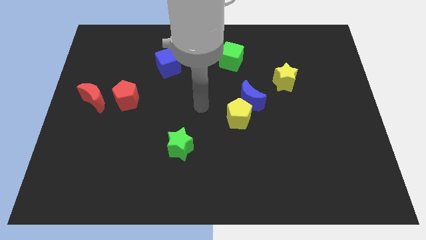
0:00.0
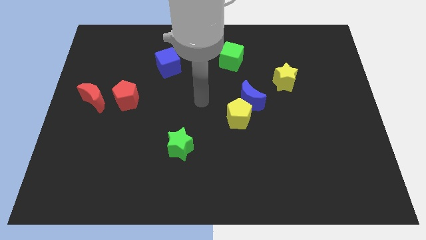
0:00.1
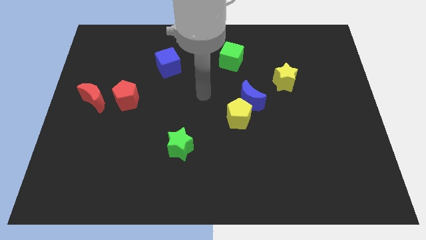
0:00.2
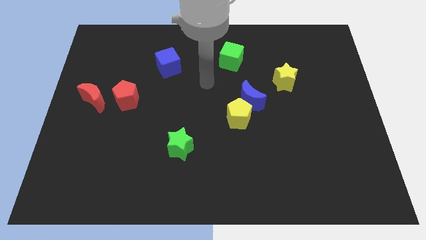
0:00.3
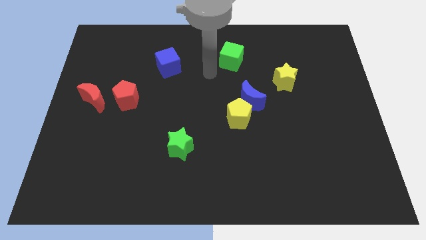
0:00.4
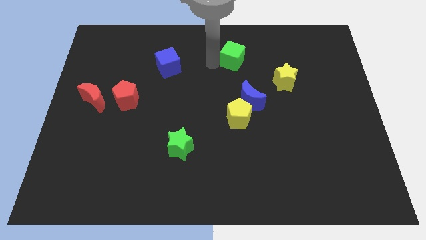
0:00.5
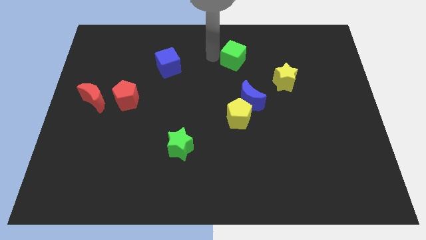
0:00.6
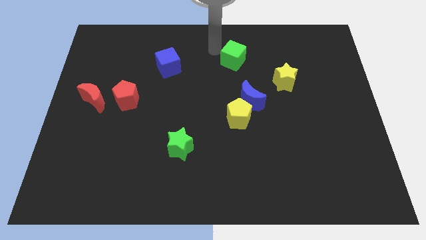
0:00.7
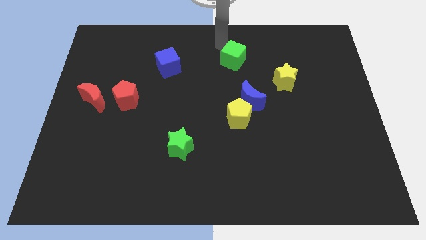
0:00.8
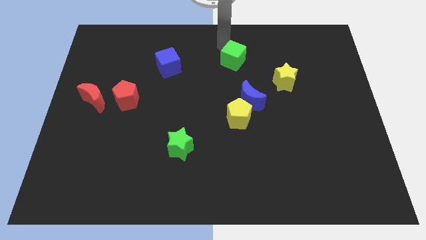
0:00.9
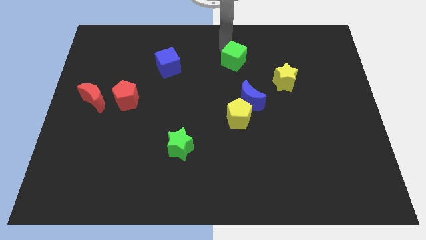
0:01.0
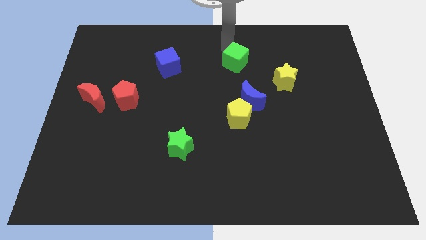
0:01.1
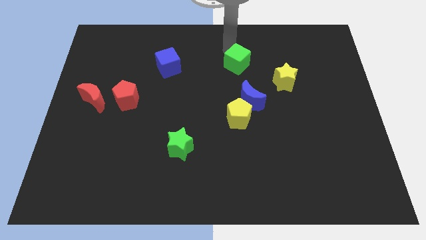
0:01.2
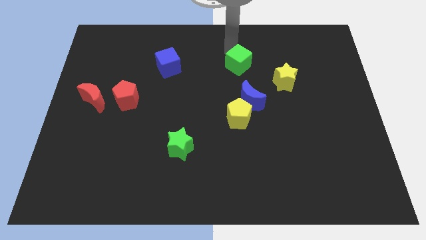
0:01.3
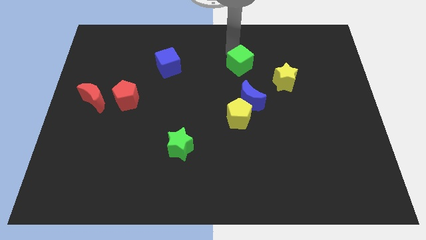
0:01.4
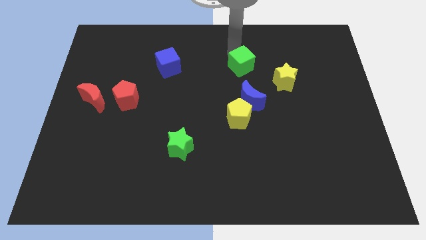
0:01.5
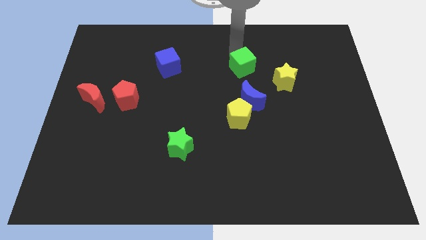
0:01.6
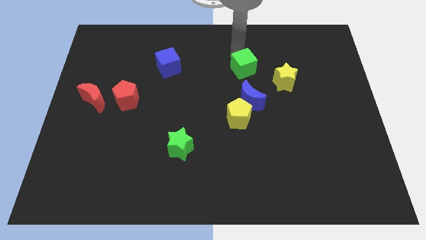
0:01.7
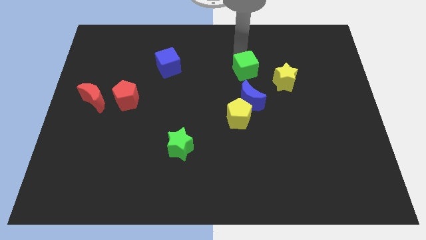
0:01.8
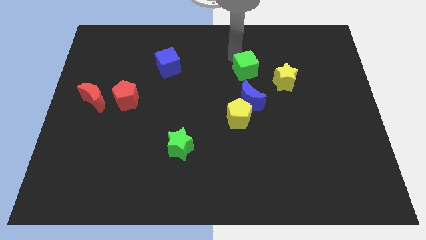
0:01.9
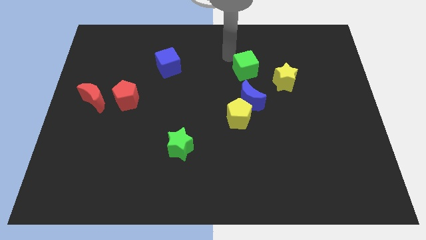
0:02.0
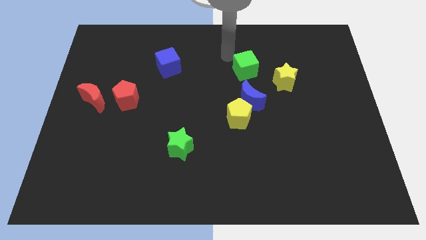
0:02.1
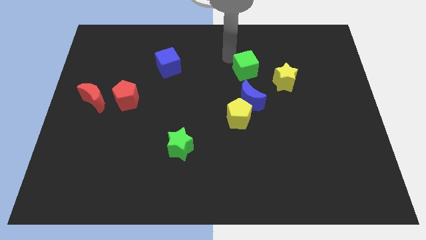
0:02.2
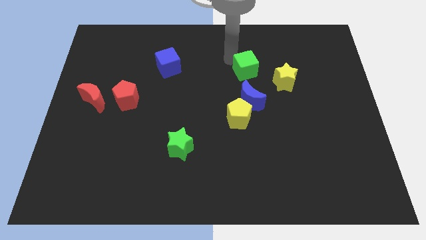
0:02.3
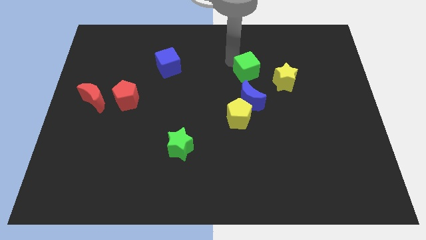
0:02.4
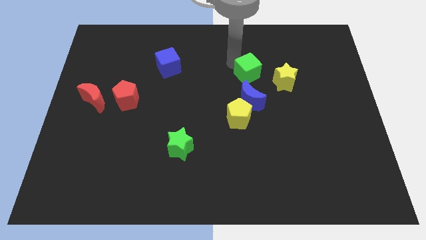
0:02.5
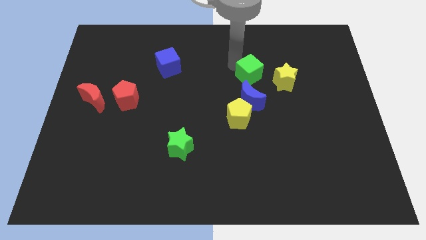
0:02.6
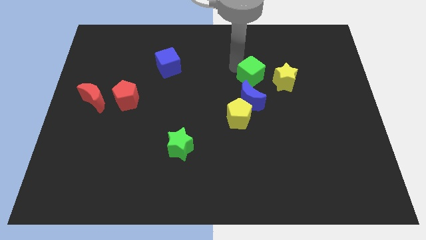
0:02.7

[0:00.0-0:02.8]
slide the green cube diagonally down and to the right slightly

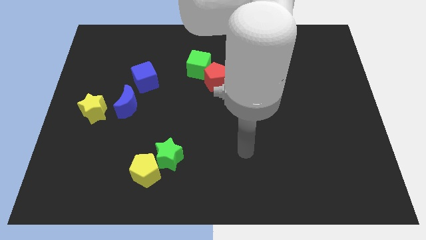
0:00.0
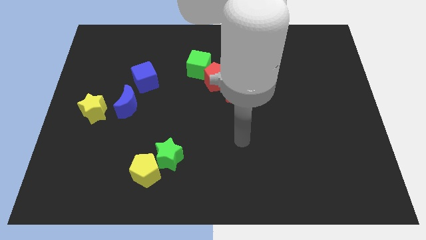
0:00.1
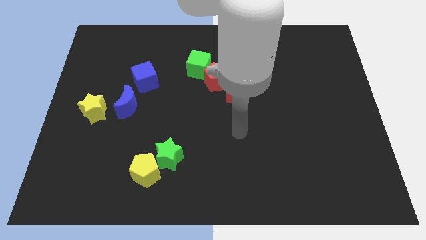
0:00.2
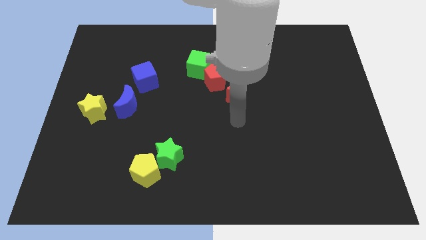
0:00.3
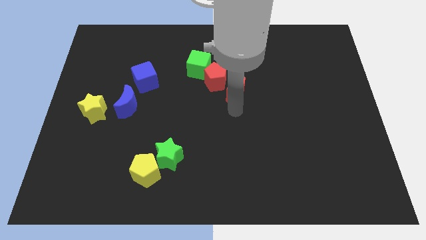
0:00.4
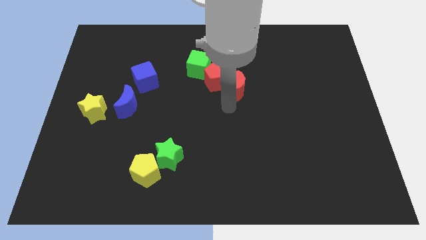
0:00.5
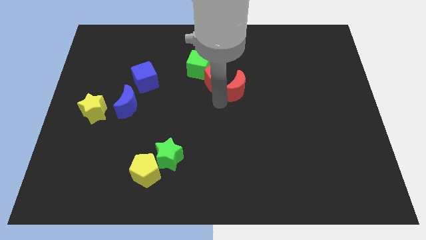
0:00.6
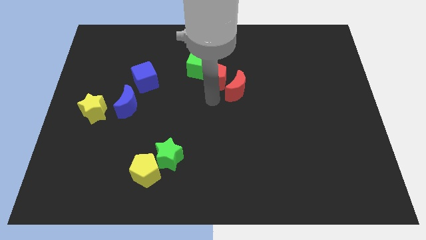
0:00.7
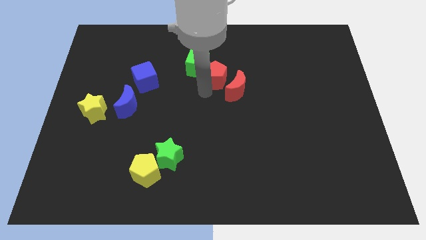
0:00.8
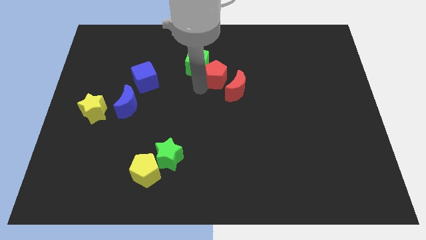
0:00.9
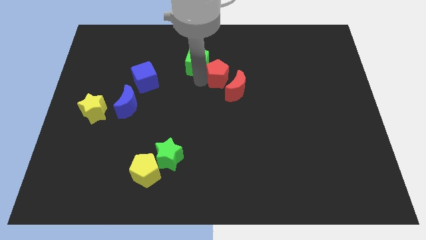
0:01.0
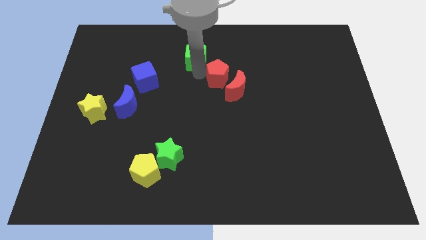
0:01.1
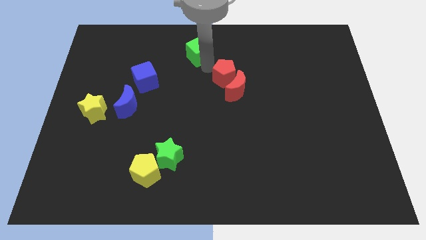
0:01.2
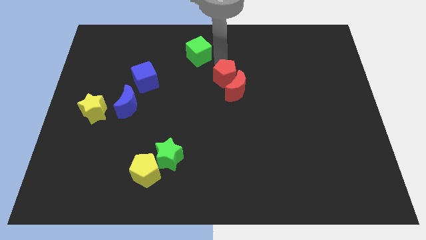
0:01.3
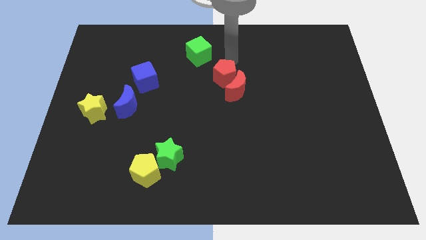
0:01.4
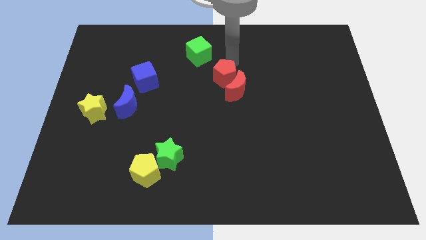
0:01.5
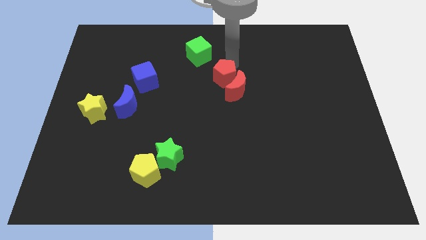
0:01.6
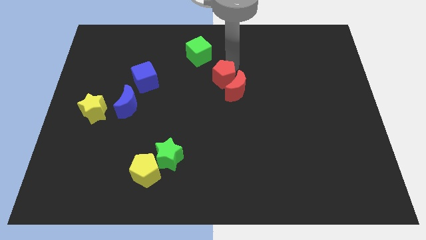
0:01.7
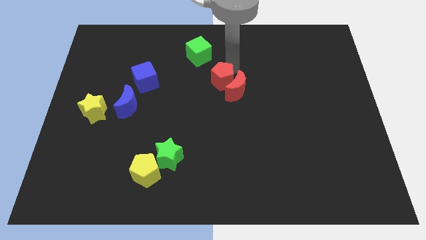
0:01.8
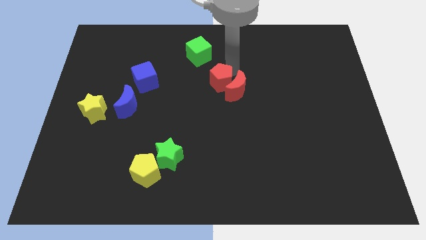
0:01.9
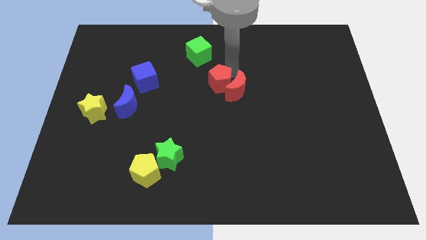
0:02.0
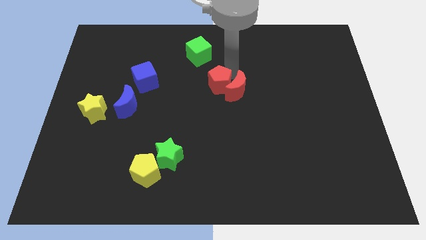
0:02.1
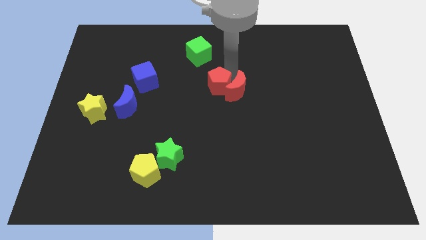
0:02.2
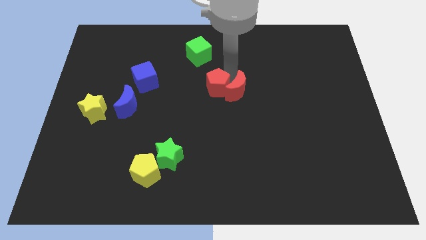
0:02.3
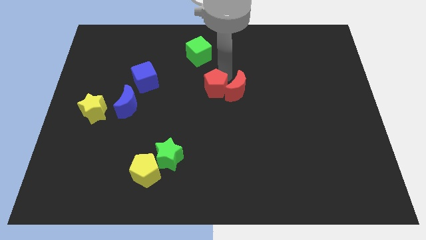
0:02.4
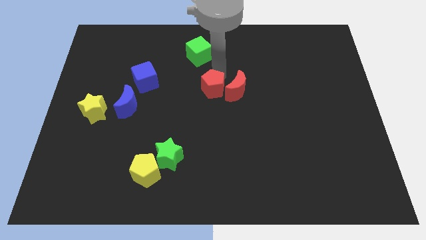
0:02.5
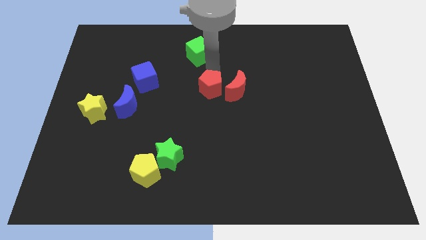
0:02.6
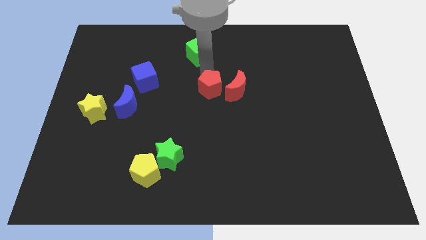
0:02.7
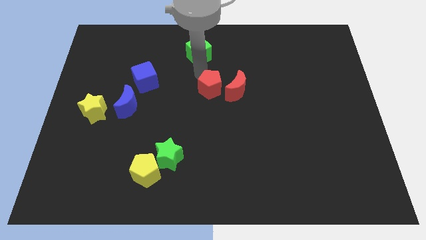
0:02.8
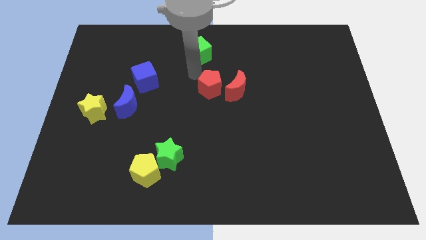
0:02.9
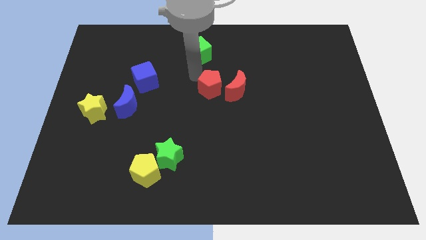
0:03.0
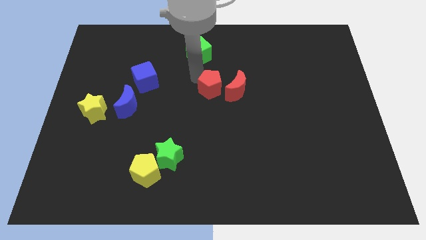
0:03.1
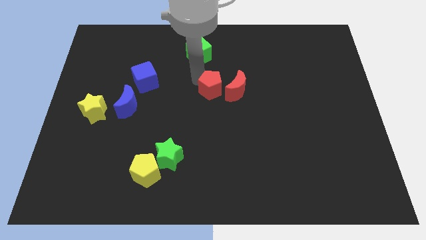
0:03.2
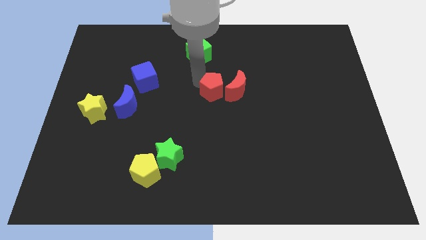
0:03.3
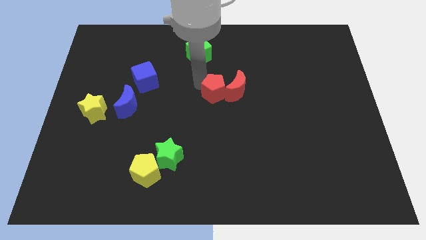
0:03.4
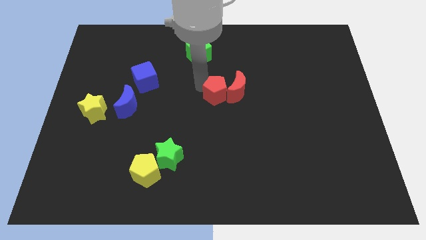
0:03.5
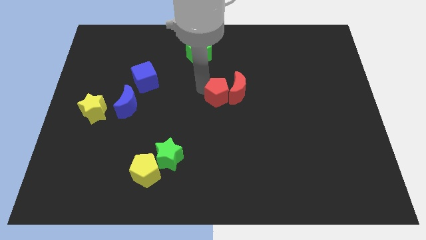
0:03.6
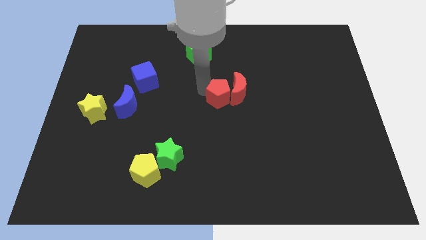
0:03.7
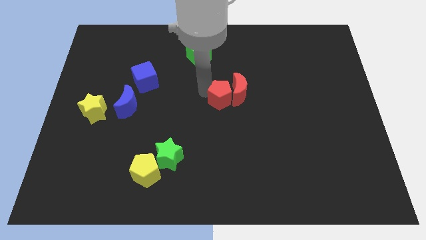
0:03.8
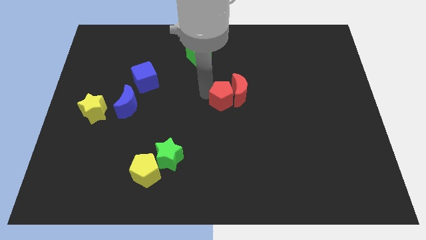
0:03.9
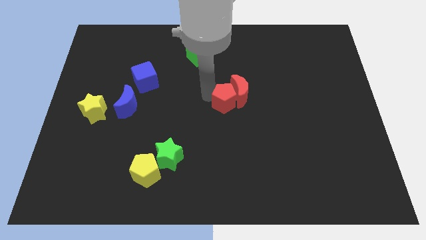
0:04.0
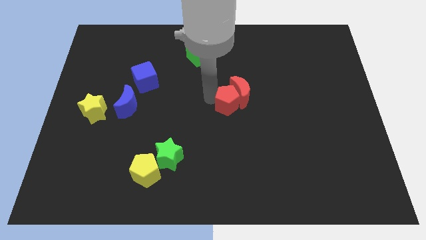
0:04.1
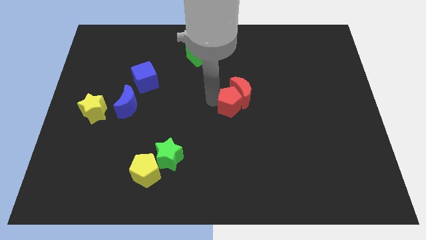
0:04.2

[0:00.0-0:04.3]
slightly slide the red pentagon diagonally down and right

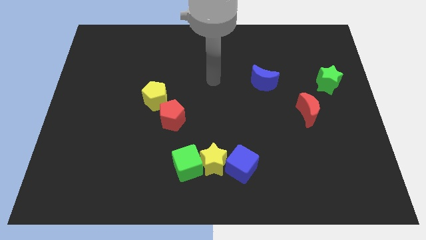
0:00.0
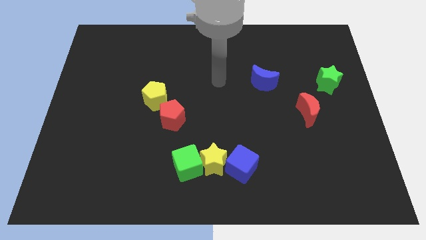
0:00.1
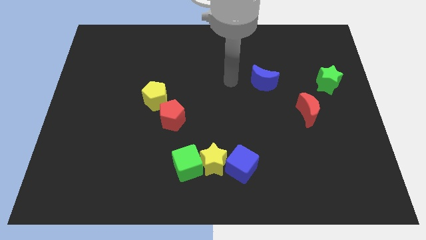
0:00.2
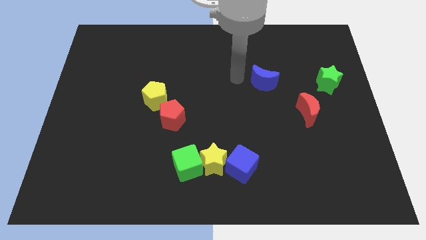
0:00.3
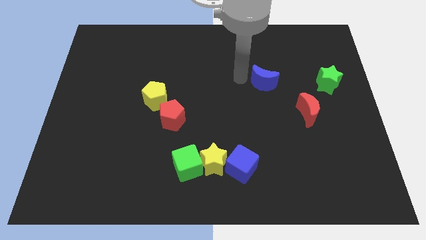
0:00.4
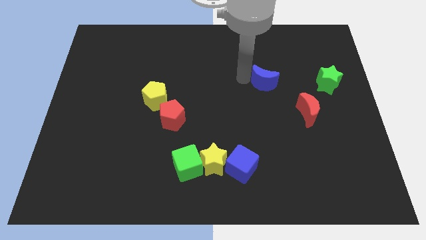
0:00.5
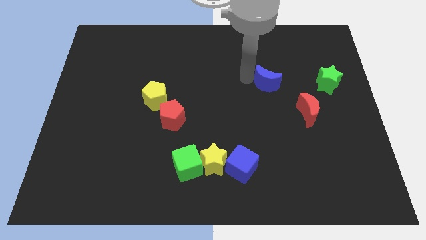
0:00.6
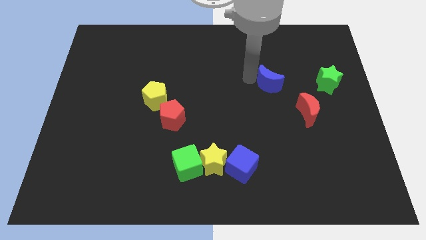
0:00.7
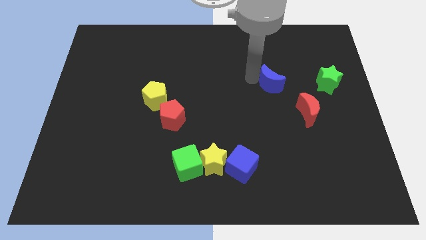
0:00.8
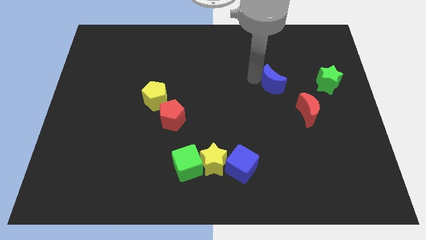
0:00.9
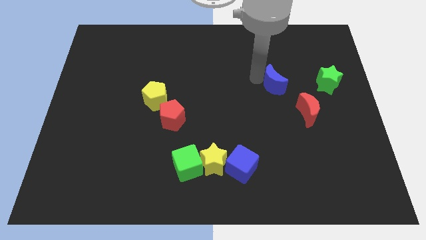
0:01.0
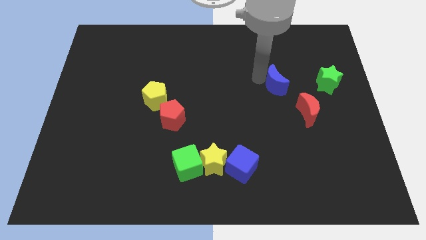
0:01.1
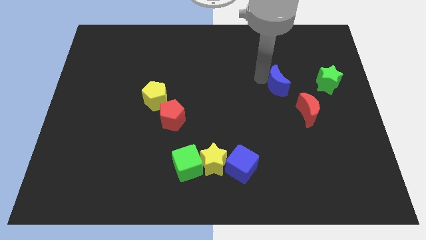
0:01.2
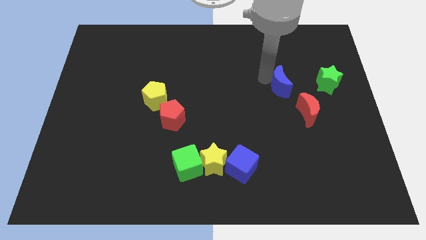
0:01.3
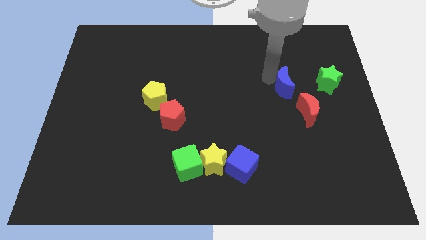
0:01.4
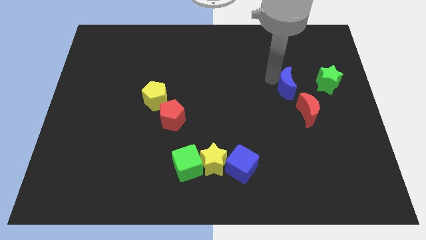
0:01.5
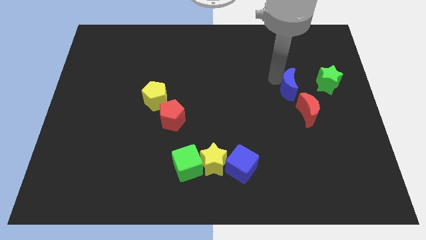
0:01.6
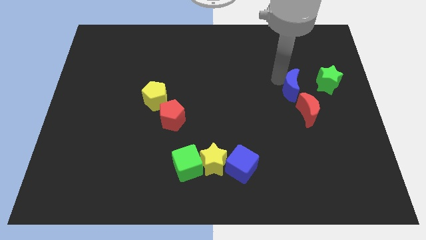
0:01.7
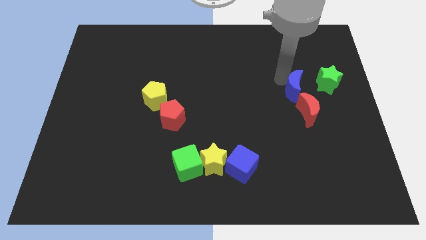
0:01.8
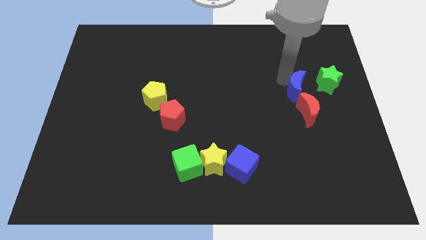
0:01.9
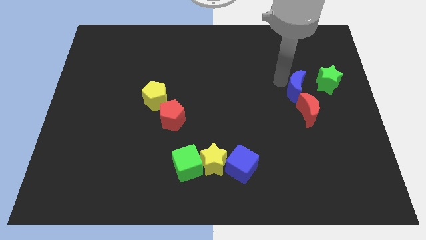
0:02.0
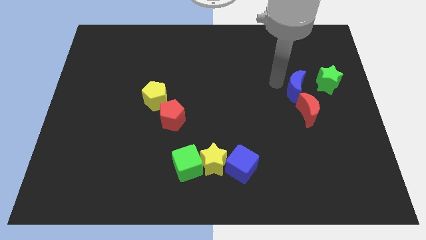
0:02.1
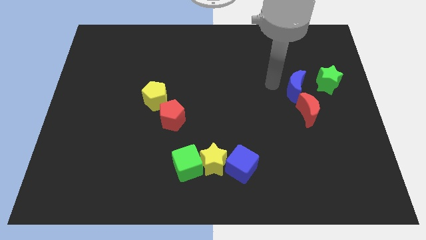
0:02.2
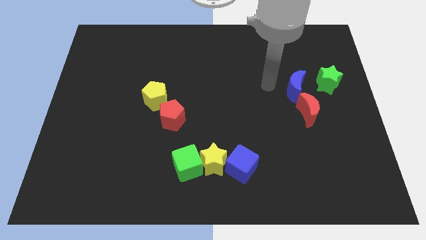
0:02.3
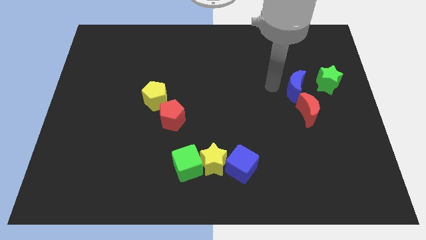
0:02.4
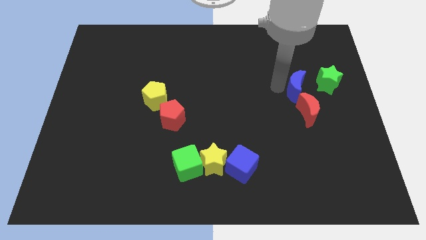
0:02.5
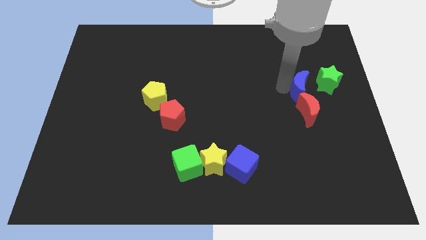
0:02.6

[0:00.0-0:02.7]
slightly slide the blue moon down and to the right diagonally
